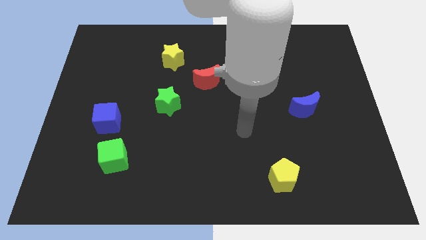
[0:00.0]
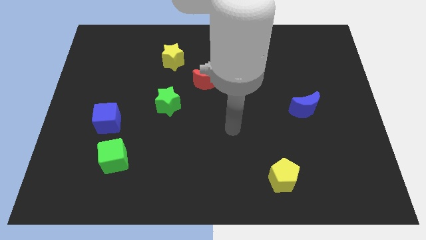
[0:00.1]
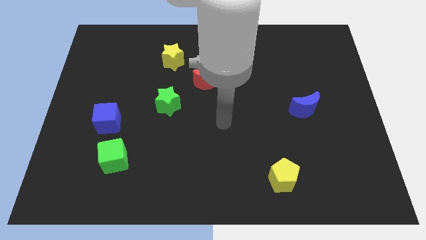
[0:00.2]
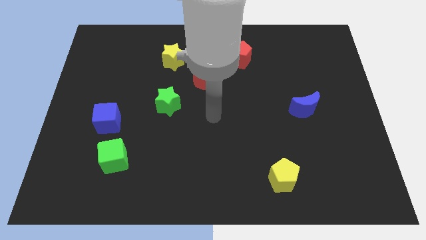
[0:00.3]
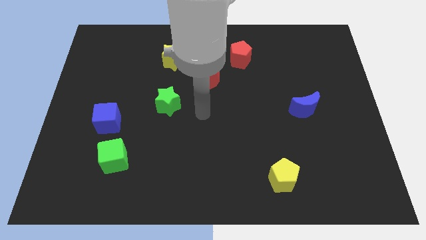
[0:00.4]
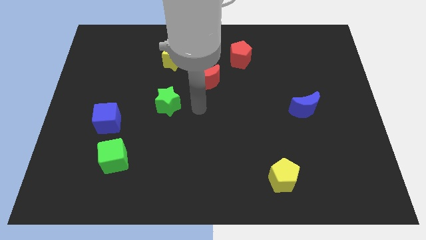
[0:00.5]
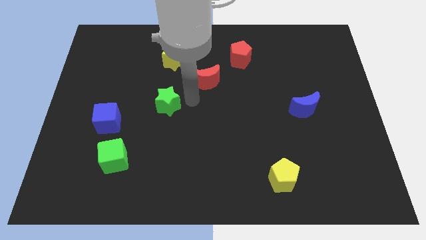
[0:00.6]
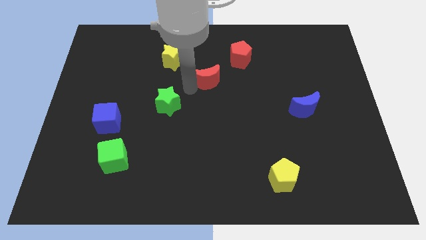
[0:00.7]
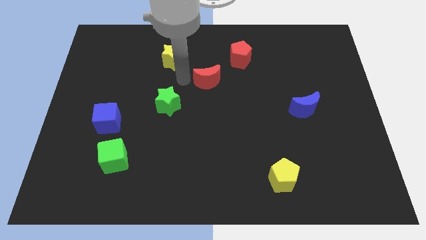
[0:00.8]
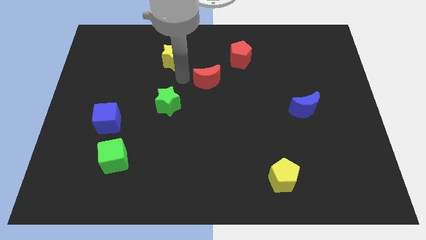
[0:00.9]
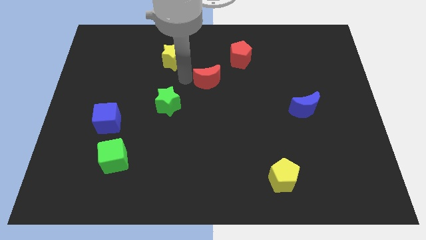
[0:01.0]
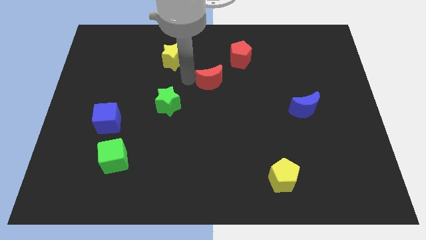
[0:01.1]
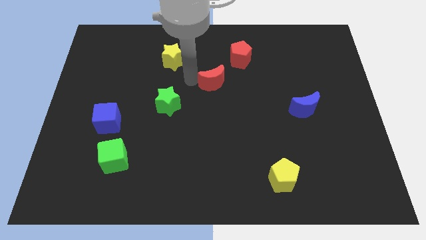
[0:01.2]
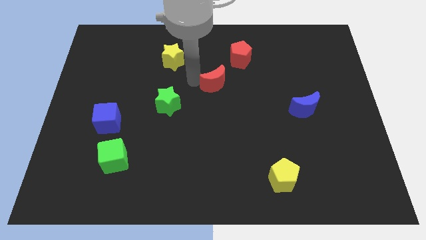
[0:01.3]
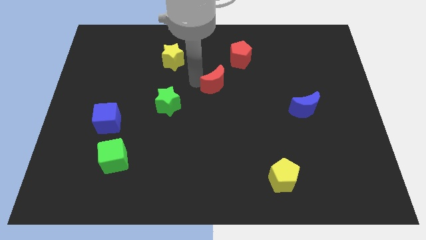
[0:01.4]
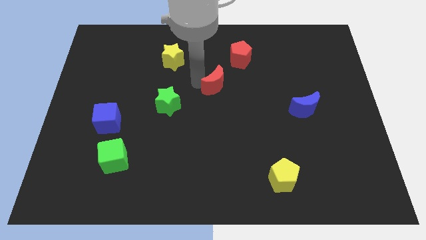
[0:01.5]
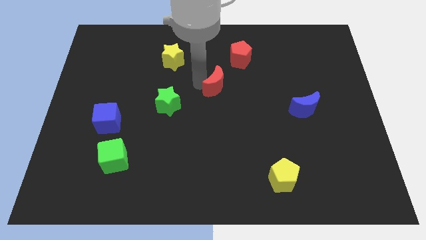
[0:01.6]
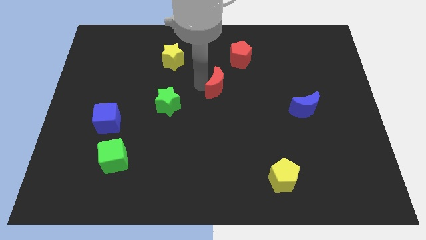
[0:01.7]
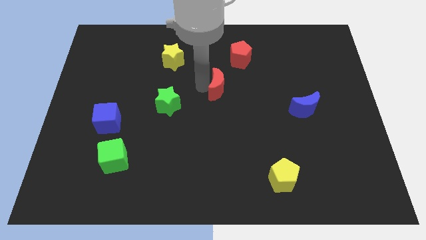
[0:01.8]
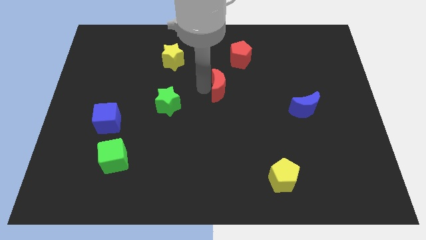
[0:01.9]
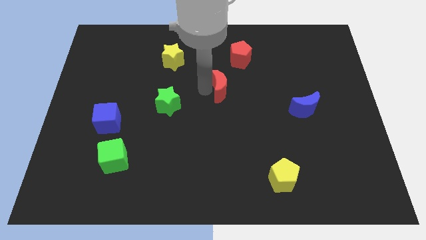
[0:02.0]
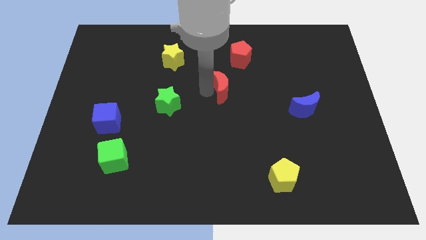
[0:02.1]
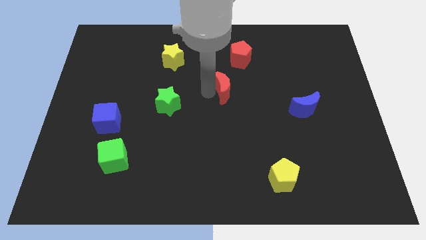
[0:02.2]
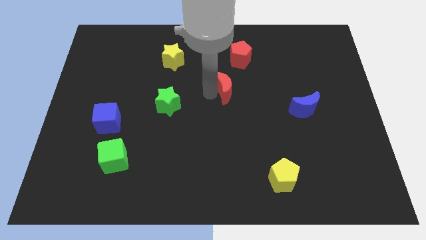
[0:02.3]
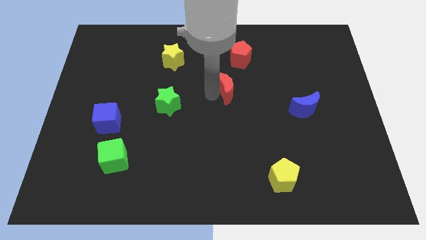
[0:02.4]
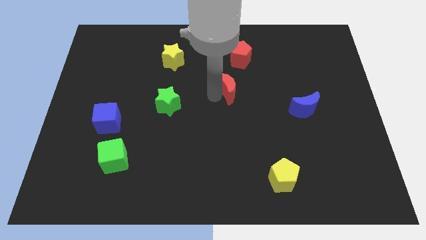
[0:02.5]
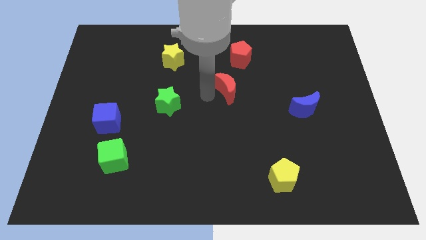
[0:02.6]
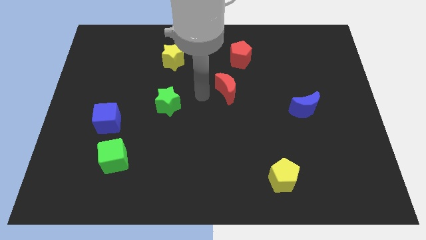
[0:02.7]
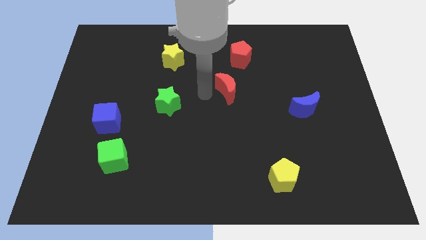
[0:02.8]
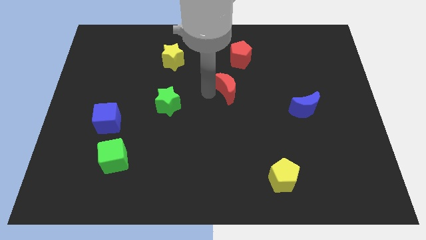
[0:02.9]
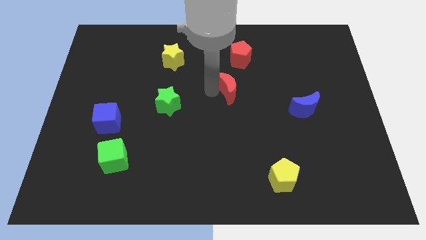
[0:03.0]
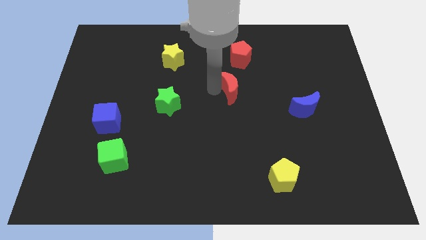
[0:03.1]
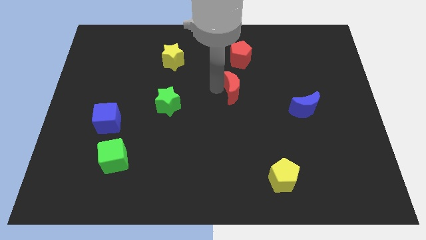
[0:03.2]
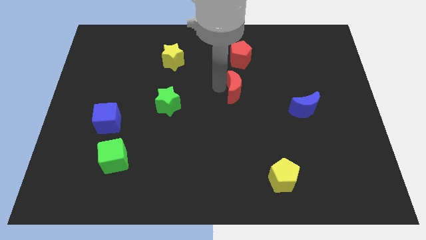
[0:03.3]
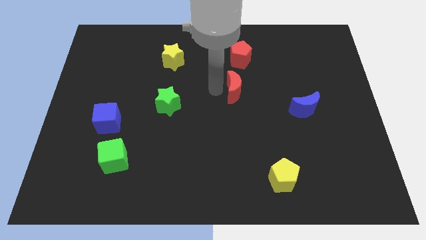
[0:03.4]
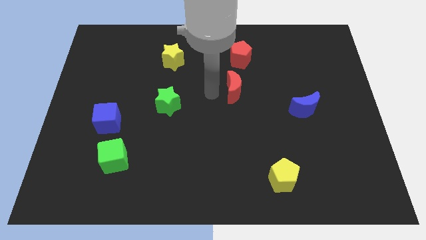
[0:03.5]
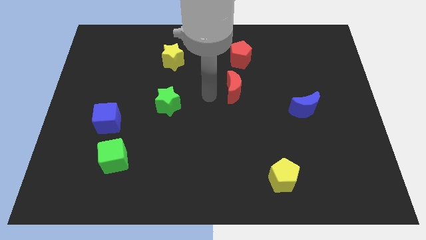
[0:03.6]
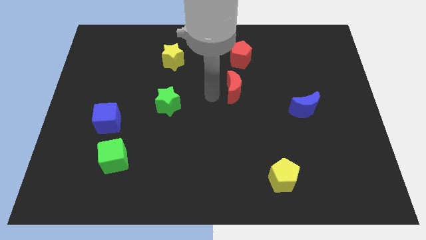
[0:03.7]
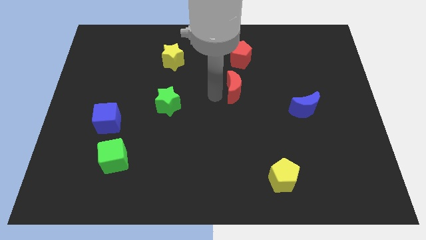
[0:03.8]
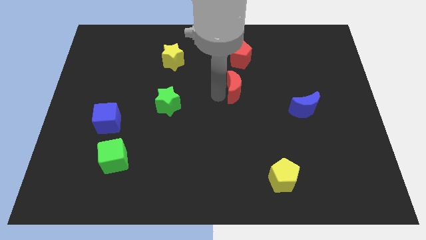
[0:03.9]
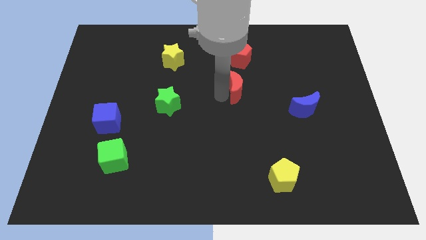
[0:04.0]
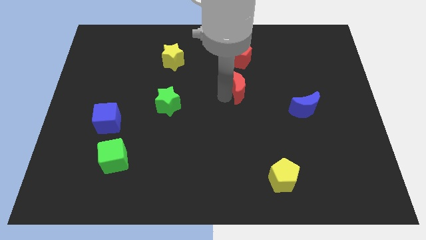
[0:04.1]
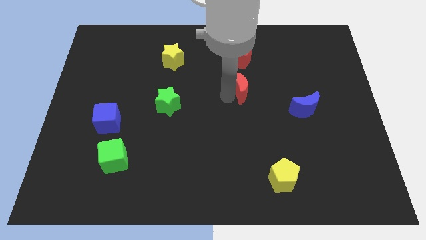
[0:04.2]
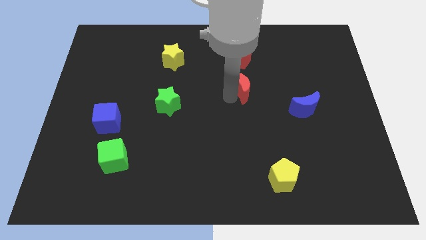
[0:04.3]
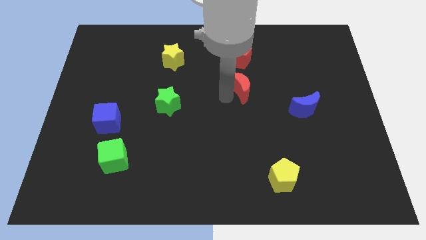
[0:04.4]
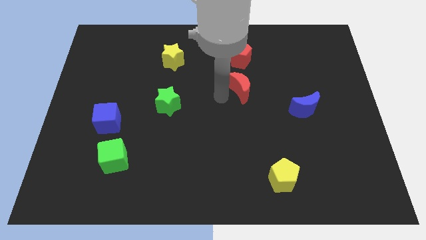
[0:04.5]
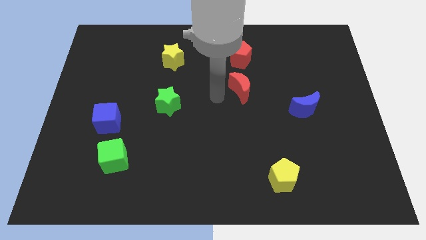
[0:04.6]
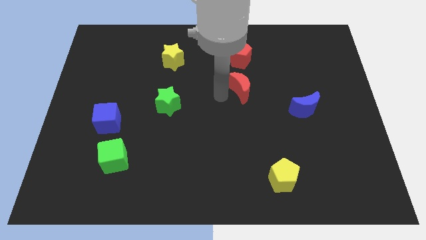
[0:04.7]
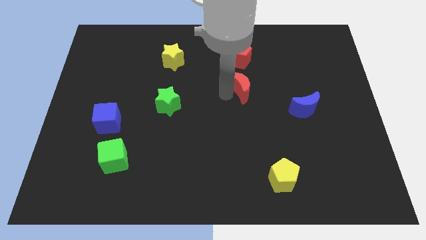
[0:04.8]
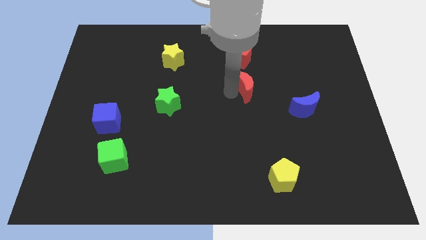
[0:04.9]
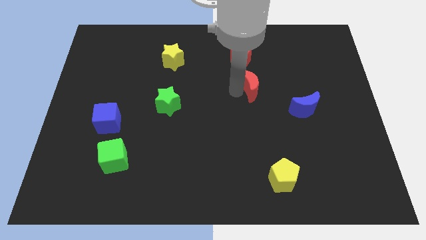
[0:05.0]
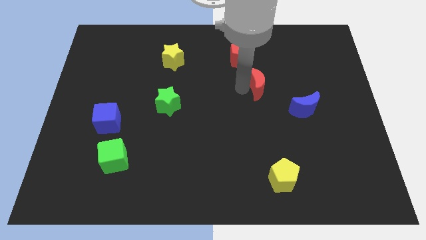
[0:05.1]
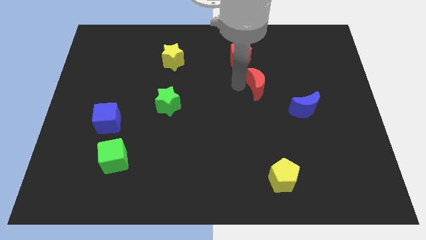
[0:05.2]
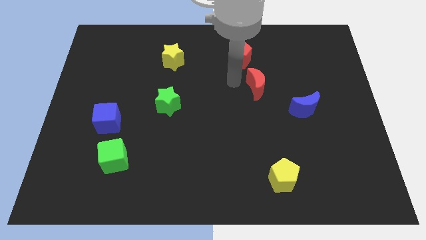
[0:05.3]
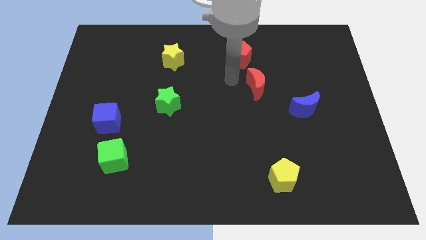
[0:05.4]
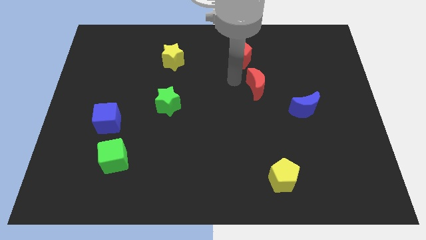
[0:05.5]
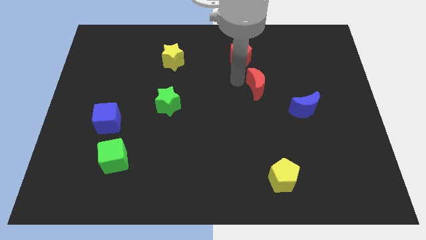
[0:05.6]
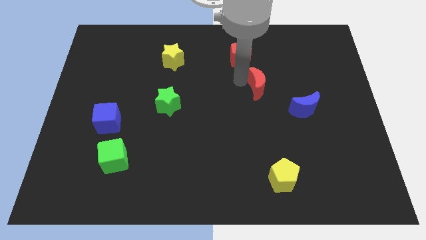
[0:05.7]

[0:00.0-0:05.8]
push the red moon to the top left of the blue moon

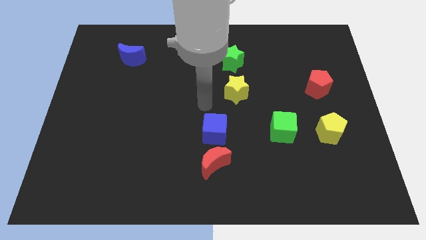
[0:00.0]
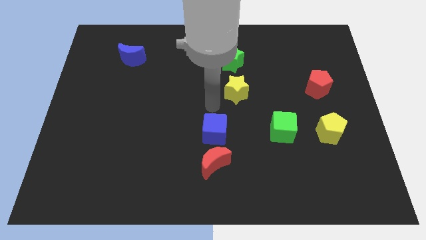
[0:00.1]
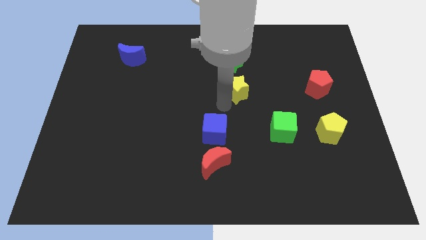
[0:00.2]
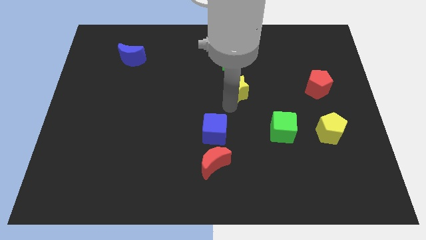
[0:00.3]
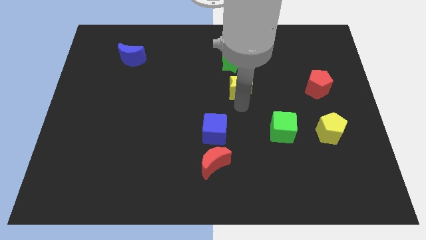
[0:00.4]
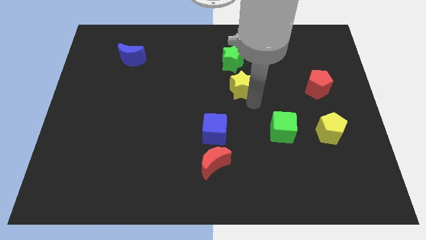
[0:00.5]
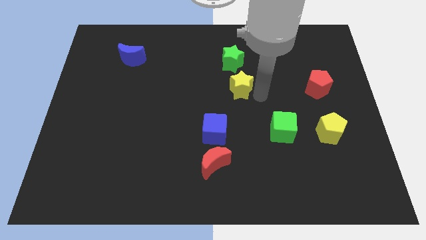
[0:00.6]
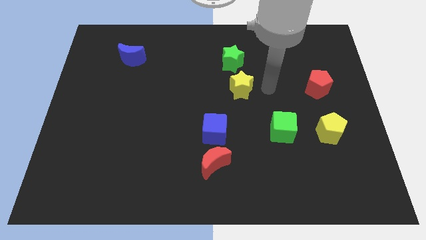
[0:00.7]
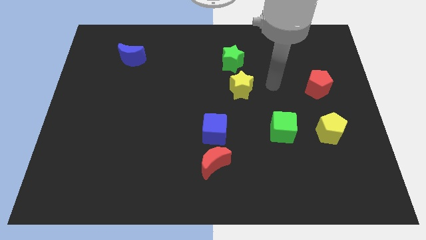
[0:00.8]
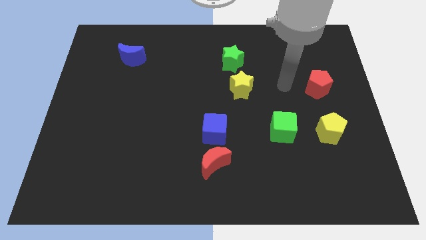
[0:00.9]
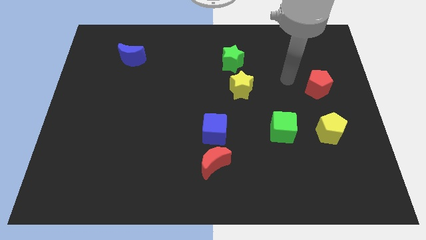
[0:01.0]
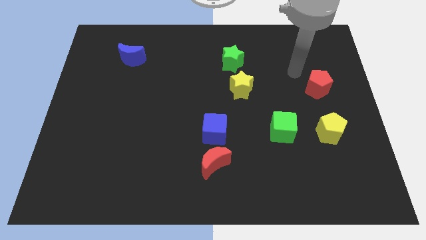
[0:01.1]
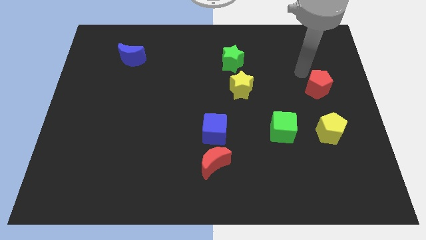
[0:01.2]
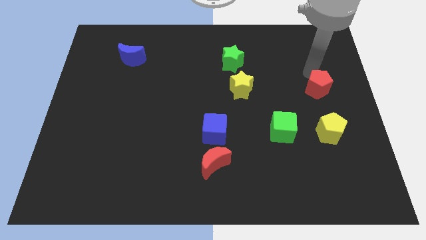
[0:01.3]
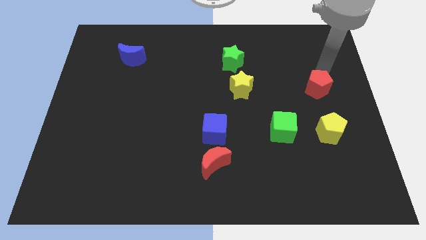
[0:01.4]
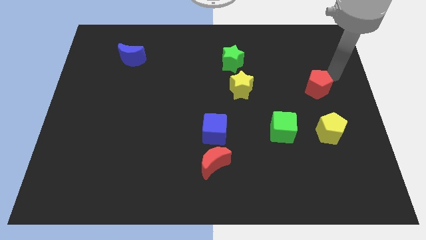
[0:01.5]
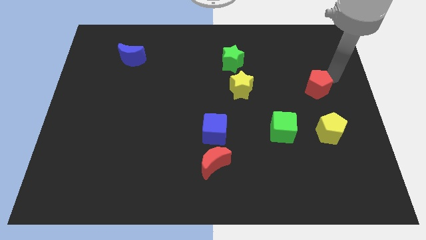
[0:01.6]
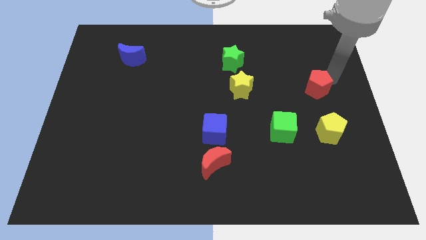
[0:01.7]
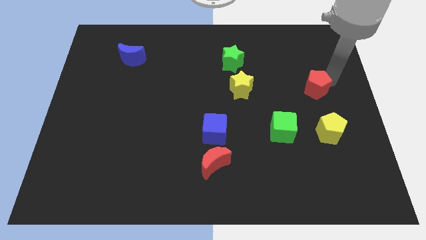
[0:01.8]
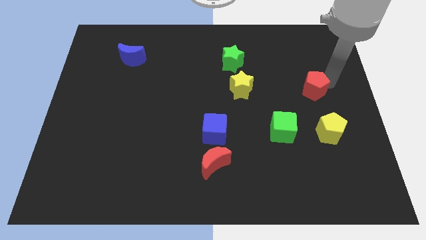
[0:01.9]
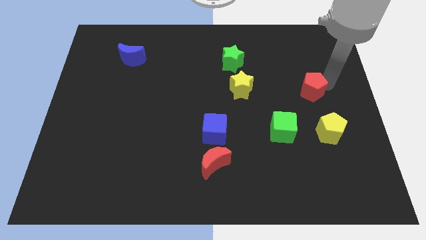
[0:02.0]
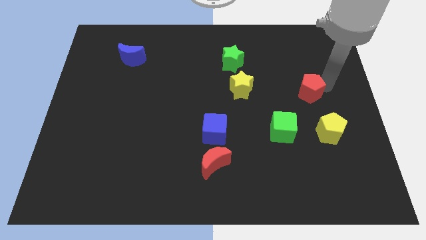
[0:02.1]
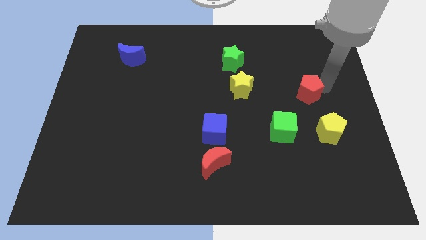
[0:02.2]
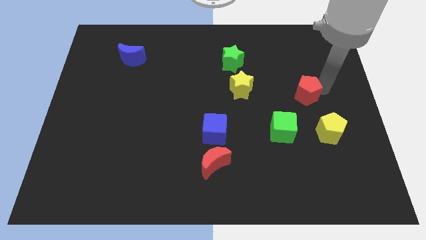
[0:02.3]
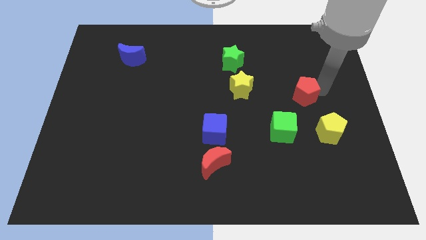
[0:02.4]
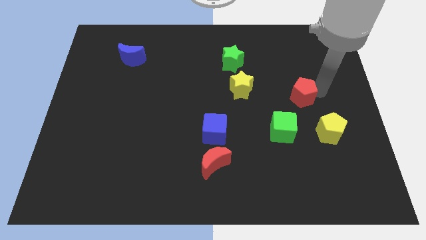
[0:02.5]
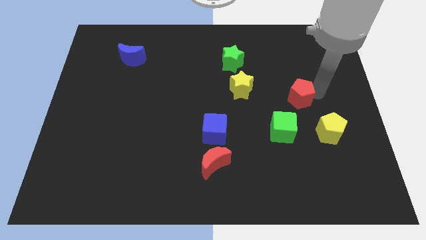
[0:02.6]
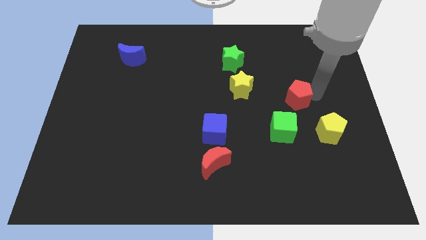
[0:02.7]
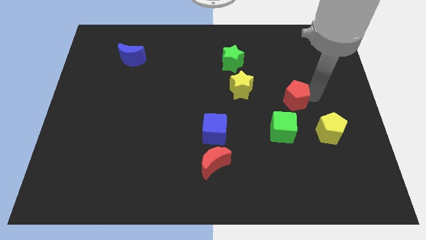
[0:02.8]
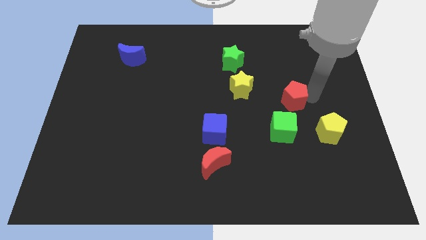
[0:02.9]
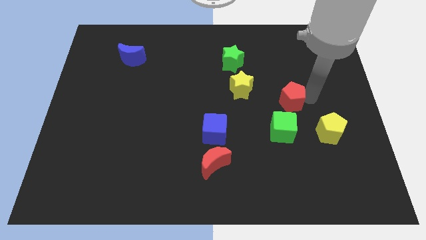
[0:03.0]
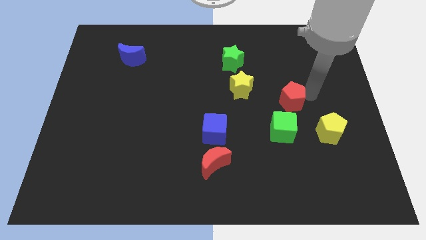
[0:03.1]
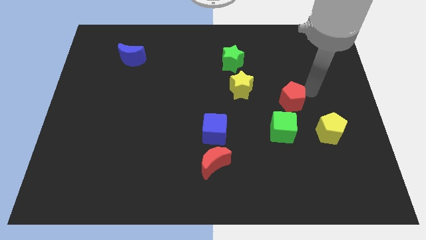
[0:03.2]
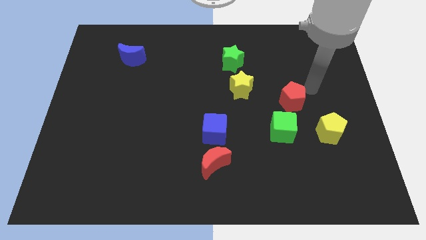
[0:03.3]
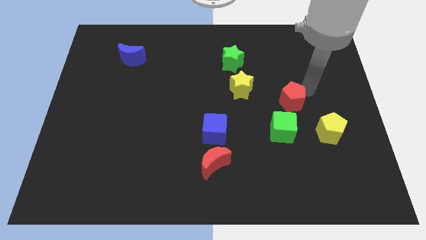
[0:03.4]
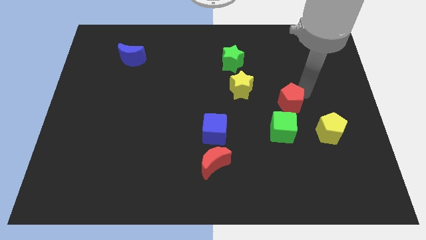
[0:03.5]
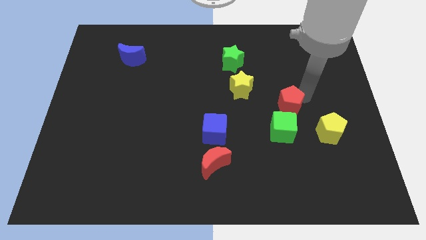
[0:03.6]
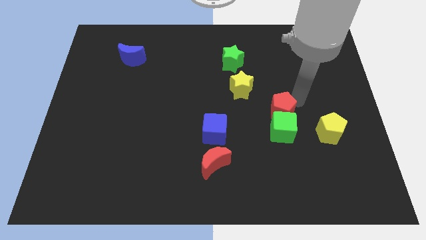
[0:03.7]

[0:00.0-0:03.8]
slide the red pentagon to the top left side of the green cube
